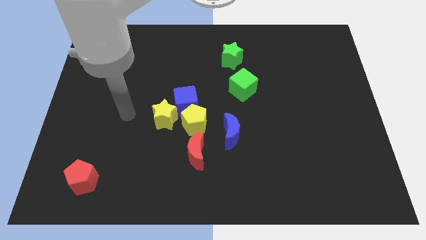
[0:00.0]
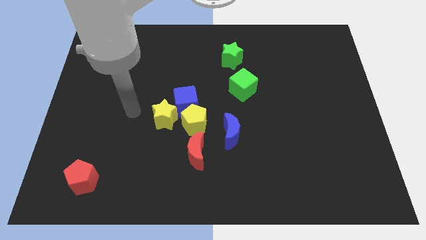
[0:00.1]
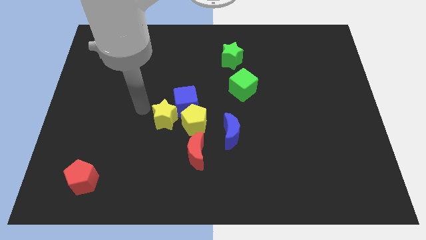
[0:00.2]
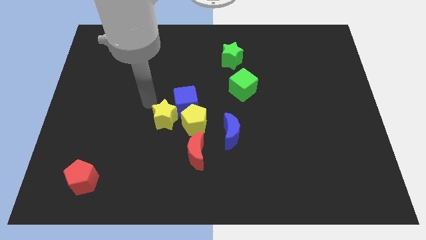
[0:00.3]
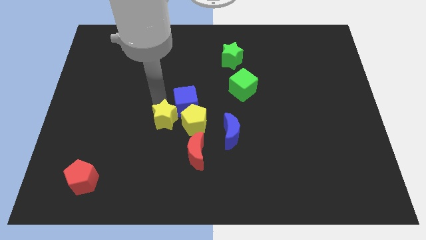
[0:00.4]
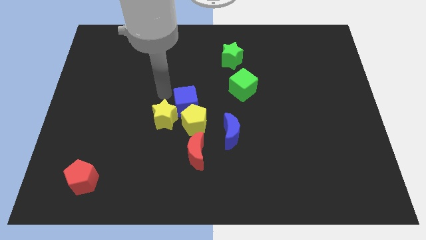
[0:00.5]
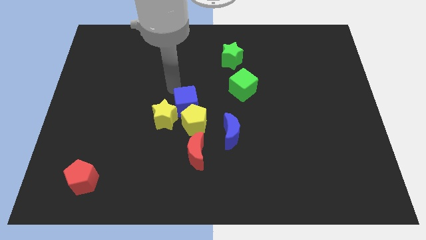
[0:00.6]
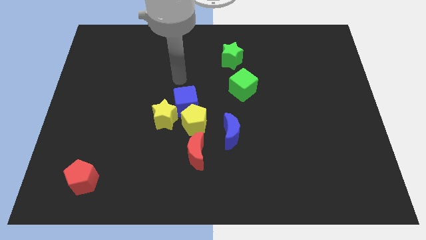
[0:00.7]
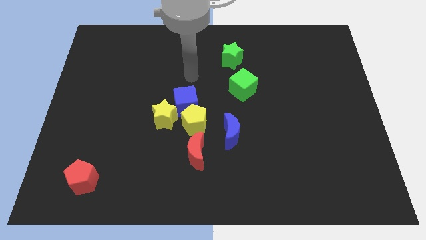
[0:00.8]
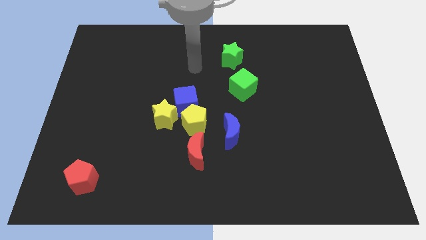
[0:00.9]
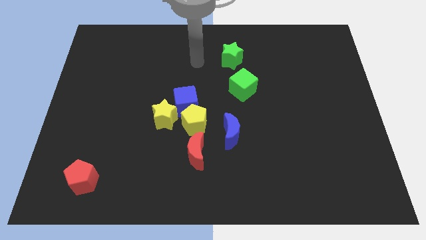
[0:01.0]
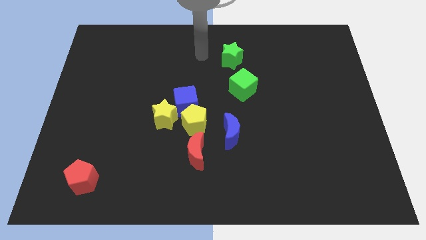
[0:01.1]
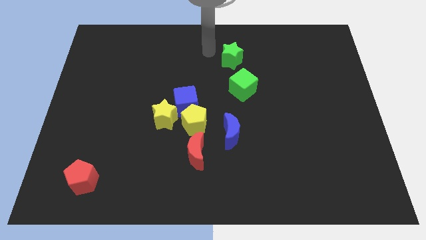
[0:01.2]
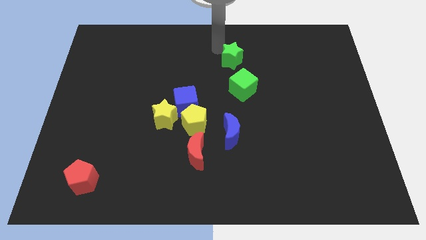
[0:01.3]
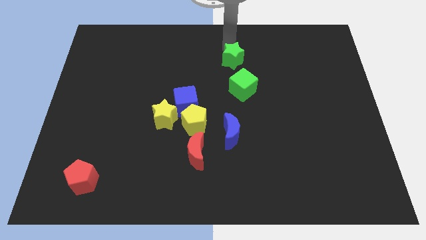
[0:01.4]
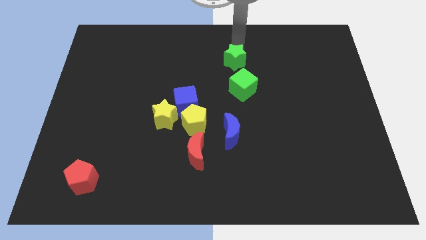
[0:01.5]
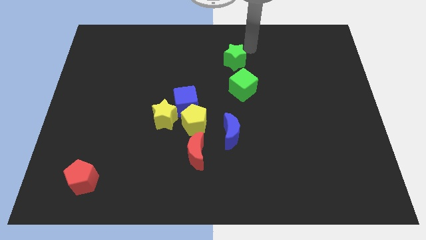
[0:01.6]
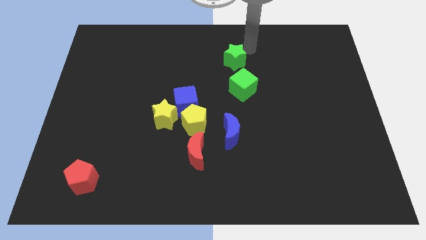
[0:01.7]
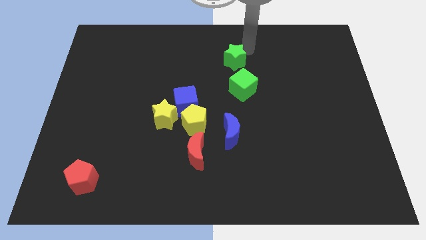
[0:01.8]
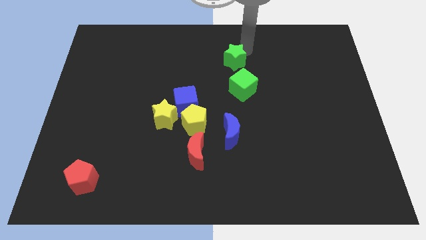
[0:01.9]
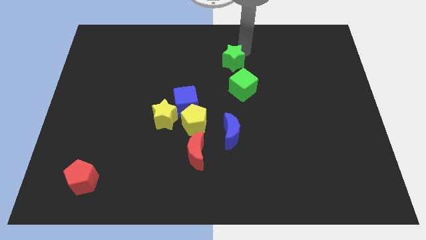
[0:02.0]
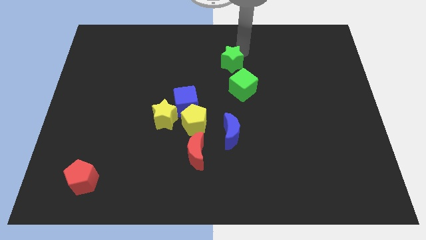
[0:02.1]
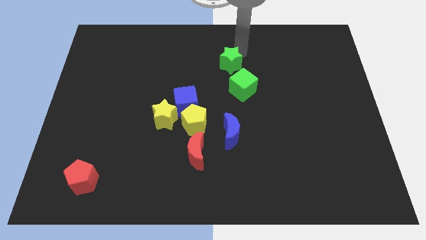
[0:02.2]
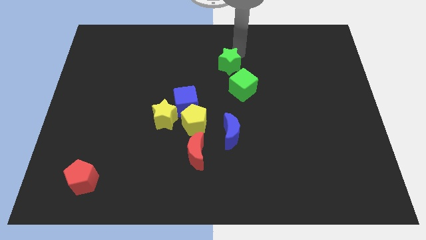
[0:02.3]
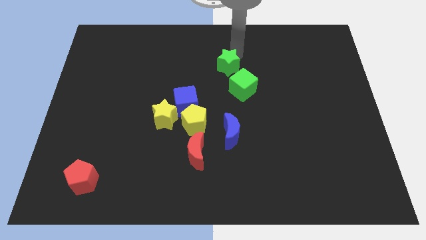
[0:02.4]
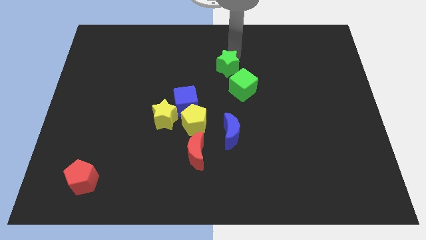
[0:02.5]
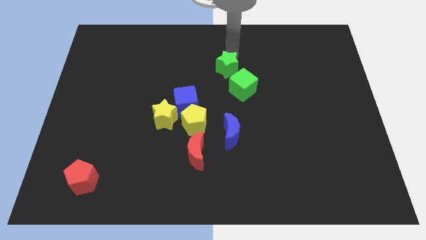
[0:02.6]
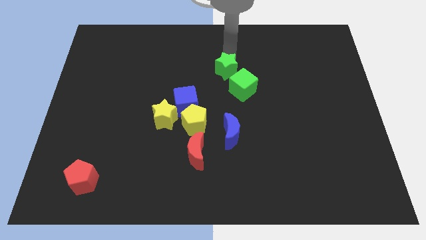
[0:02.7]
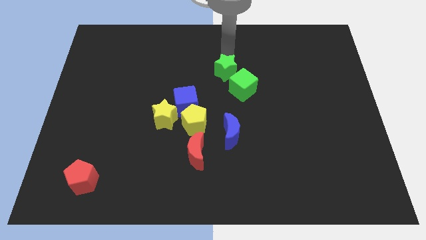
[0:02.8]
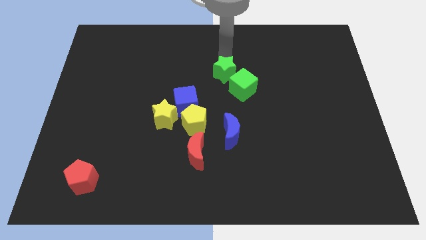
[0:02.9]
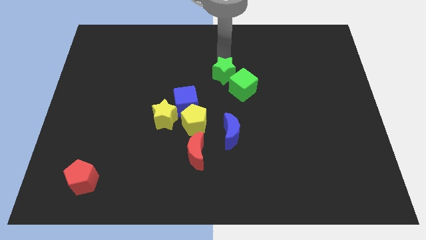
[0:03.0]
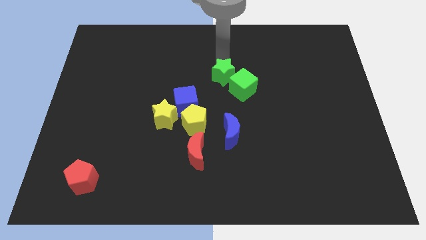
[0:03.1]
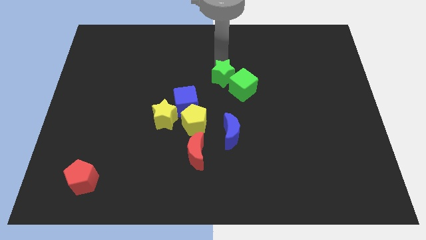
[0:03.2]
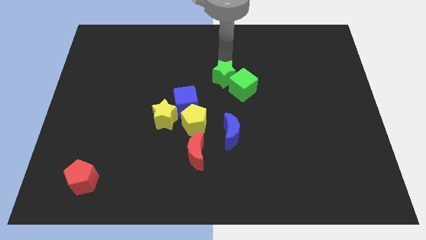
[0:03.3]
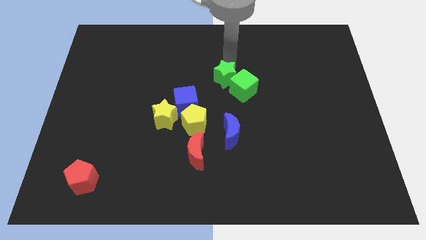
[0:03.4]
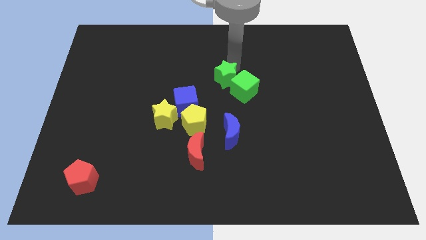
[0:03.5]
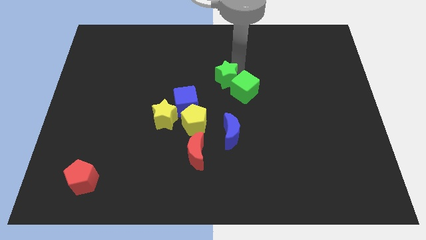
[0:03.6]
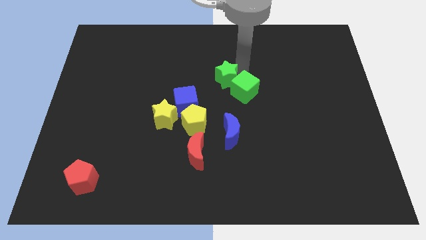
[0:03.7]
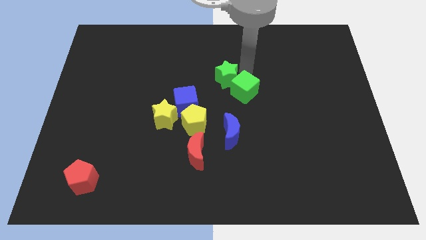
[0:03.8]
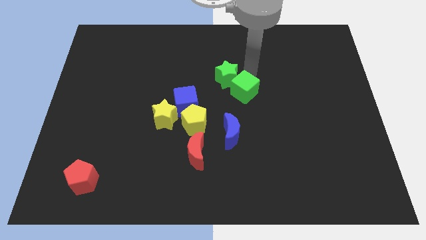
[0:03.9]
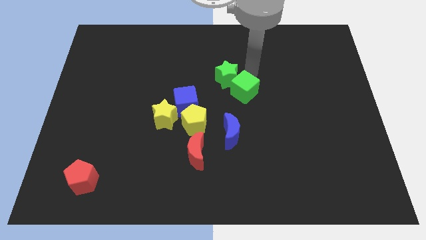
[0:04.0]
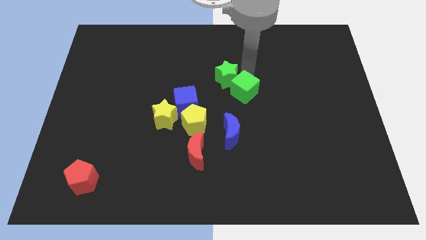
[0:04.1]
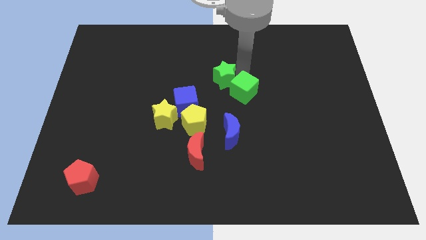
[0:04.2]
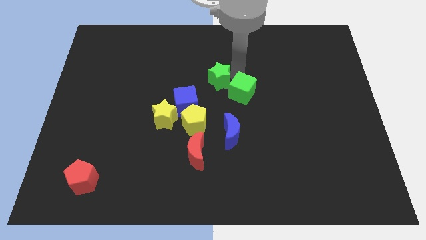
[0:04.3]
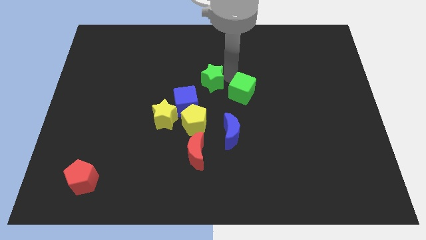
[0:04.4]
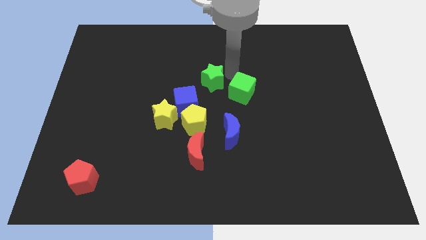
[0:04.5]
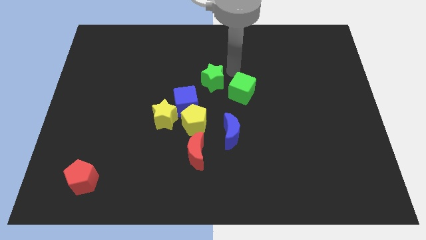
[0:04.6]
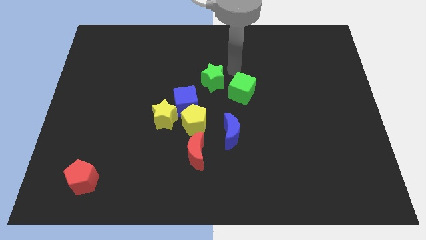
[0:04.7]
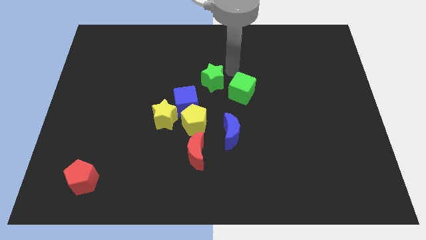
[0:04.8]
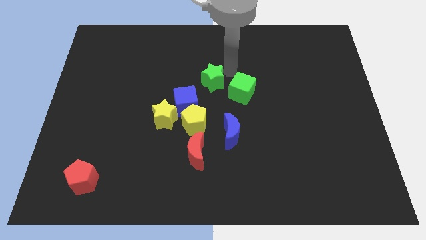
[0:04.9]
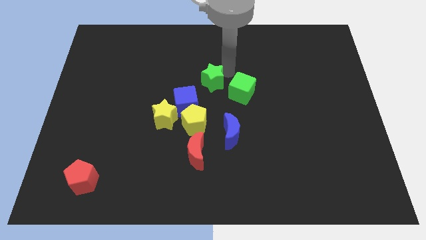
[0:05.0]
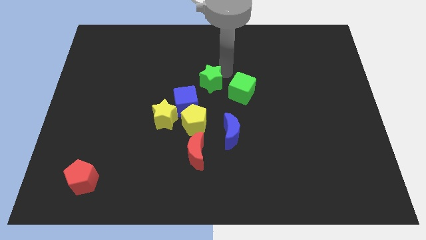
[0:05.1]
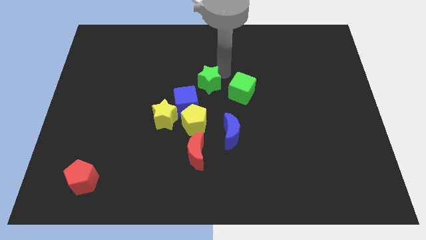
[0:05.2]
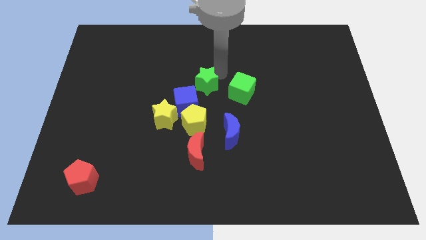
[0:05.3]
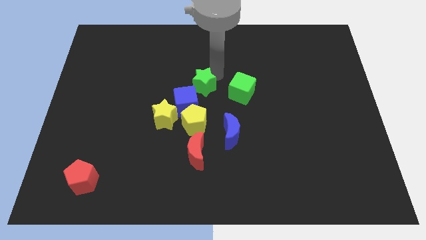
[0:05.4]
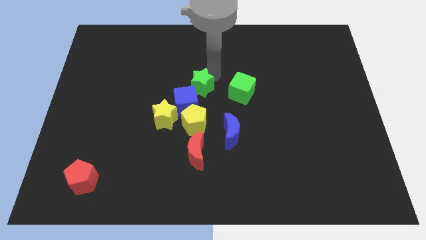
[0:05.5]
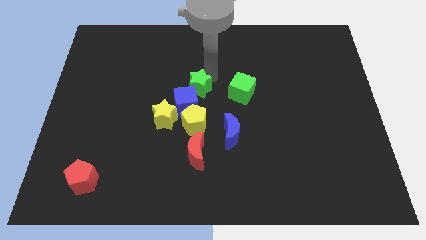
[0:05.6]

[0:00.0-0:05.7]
put the green star close to the blue cube

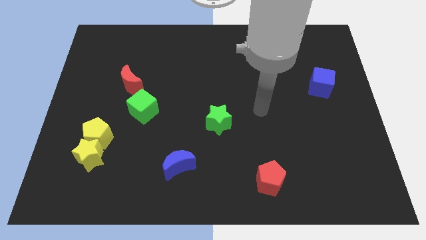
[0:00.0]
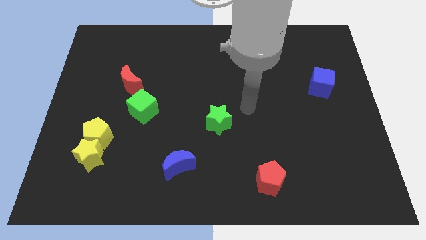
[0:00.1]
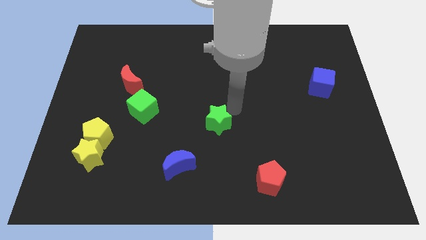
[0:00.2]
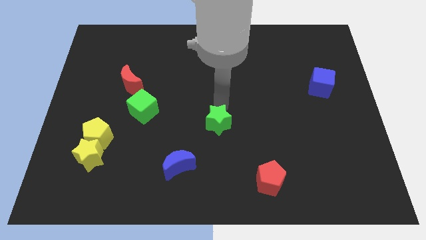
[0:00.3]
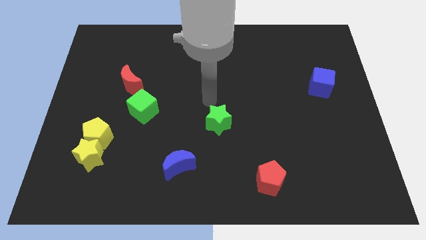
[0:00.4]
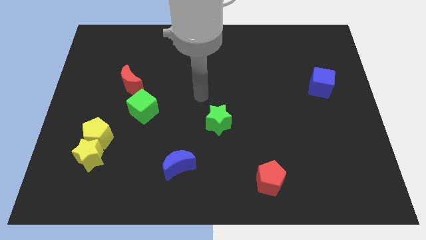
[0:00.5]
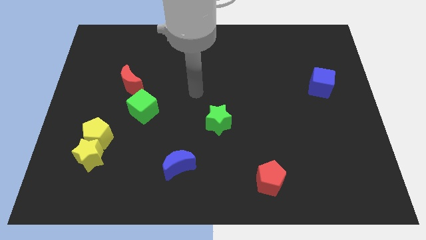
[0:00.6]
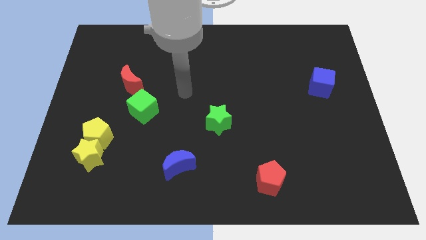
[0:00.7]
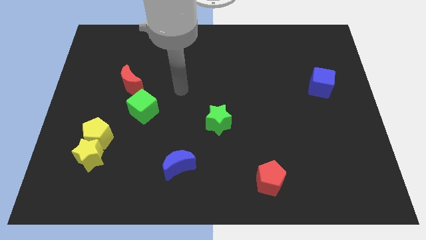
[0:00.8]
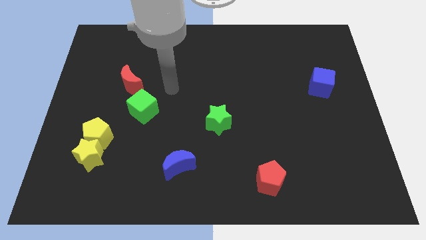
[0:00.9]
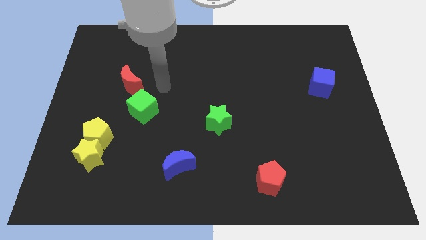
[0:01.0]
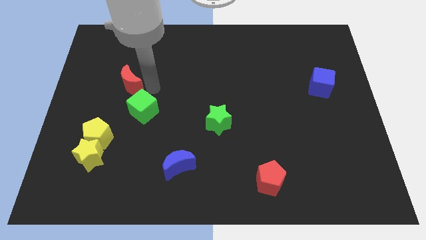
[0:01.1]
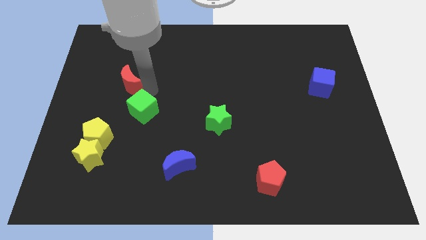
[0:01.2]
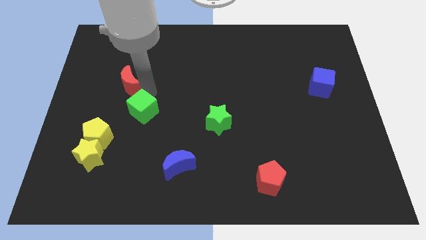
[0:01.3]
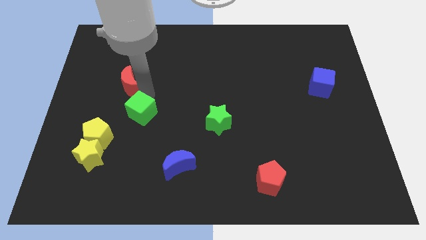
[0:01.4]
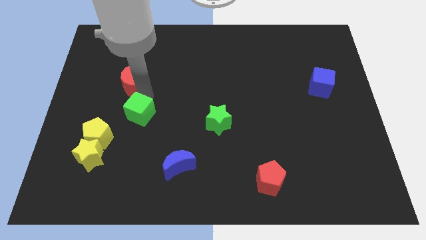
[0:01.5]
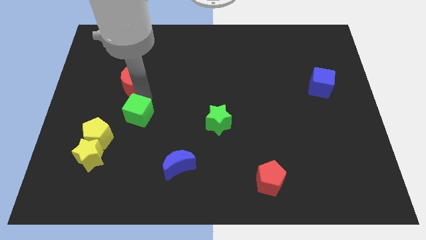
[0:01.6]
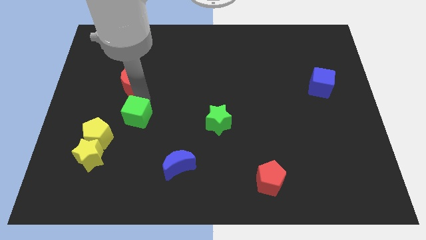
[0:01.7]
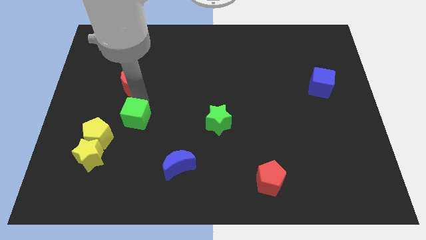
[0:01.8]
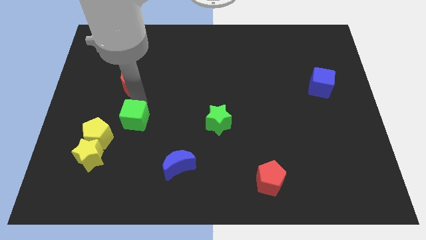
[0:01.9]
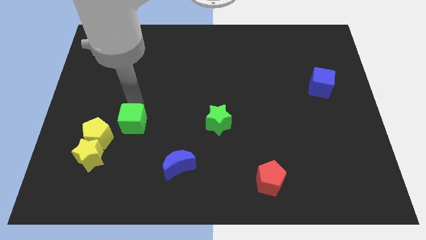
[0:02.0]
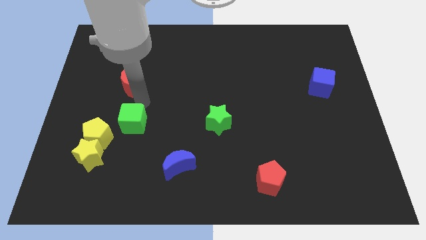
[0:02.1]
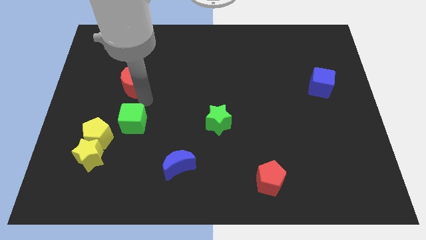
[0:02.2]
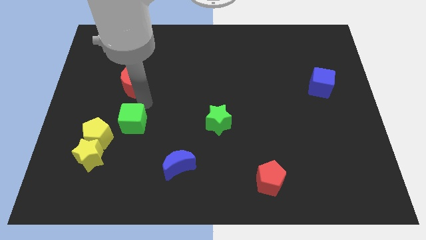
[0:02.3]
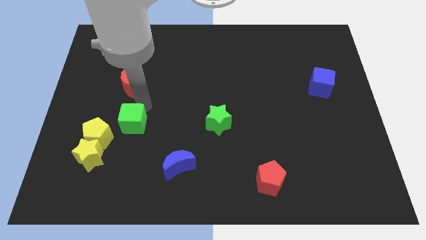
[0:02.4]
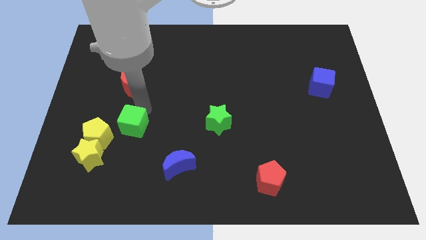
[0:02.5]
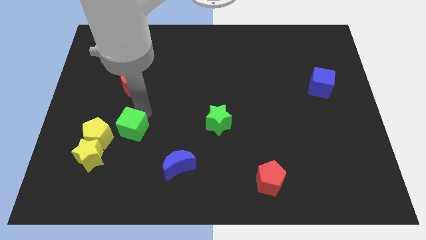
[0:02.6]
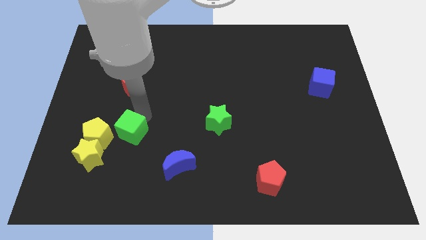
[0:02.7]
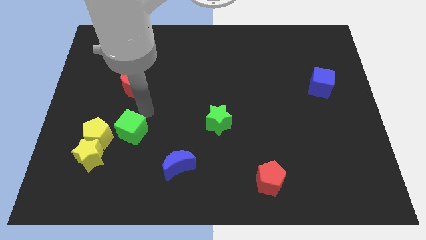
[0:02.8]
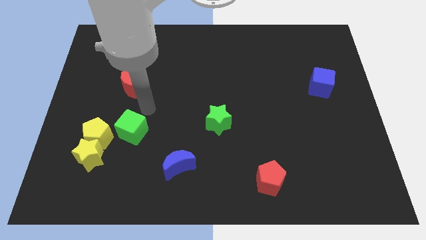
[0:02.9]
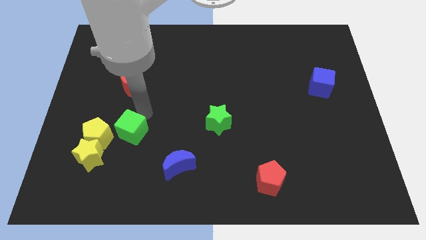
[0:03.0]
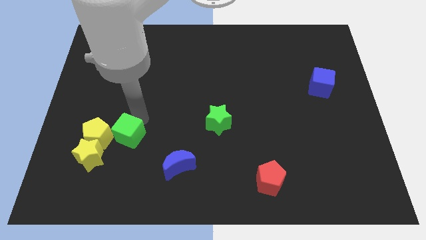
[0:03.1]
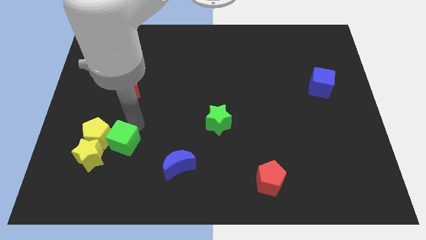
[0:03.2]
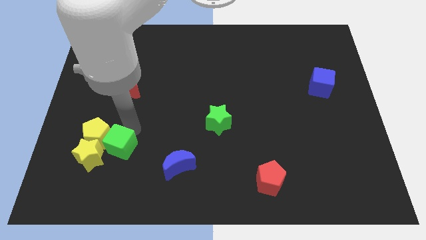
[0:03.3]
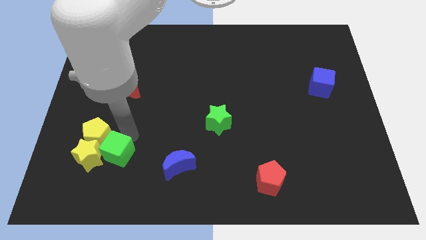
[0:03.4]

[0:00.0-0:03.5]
put the green cube close to the yellow star
